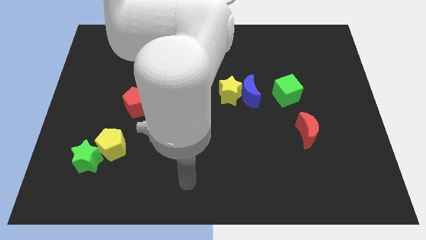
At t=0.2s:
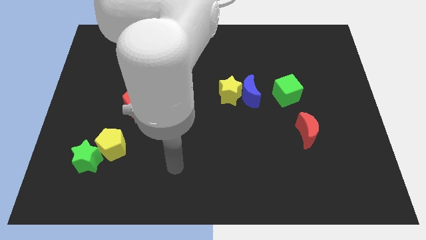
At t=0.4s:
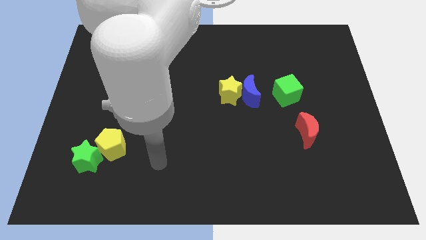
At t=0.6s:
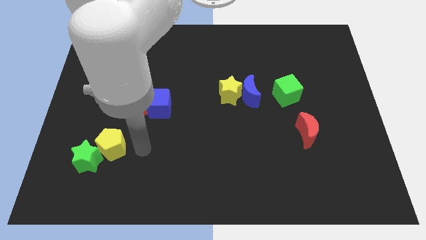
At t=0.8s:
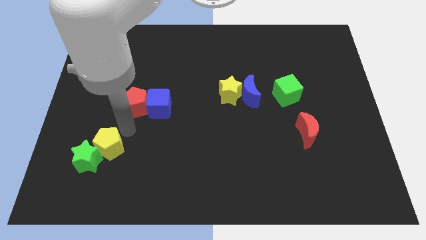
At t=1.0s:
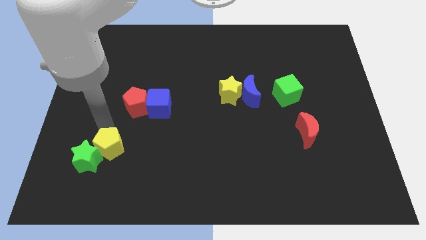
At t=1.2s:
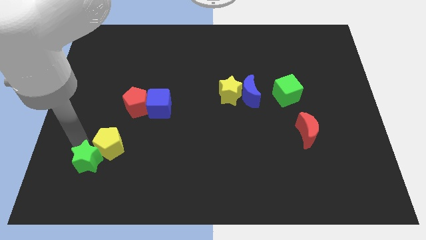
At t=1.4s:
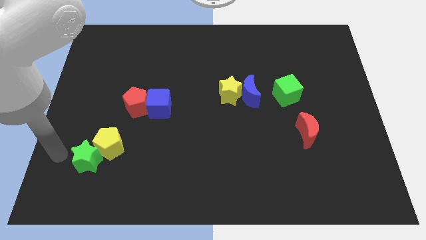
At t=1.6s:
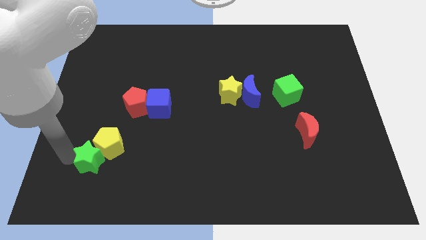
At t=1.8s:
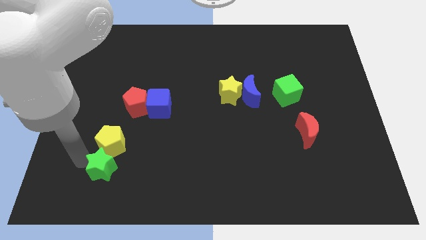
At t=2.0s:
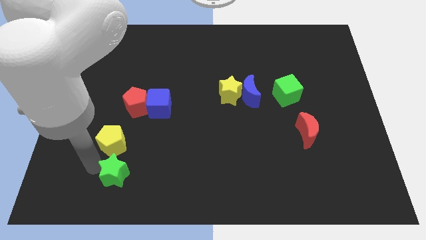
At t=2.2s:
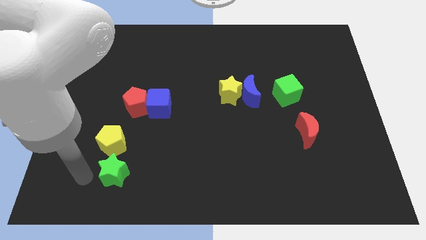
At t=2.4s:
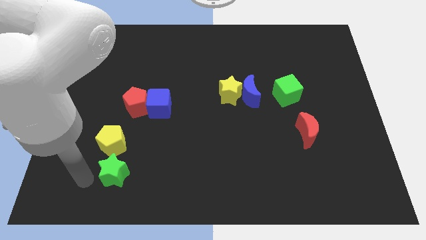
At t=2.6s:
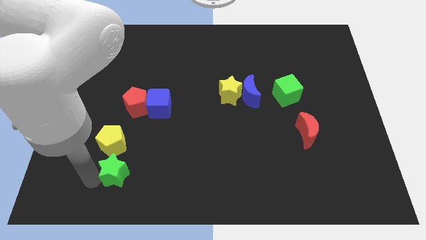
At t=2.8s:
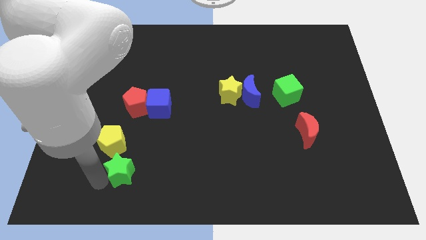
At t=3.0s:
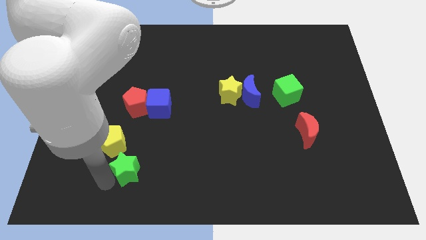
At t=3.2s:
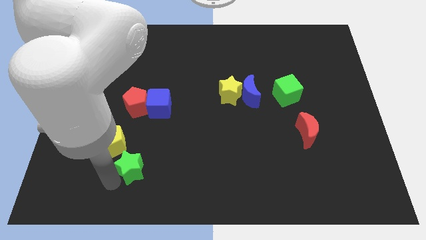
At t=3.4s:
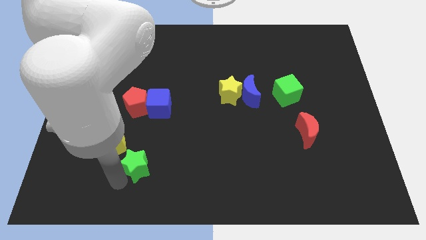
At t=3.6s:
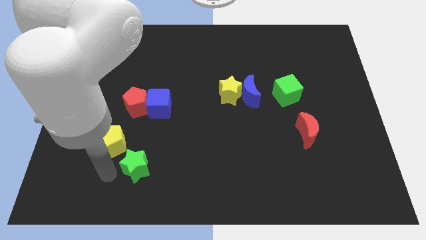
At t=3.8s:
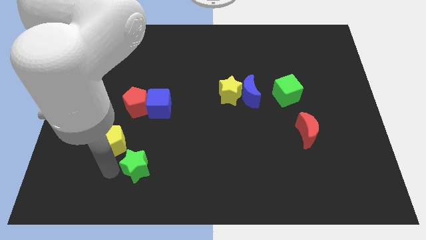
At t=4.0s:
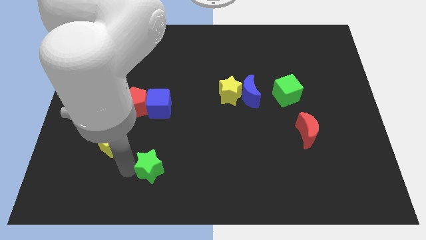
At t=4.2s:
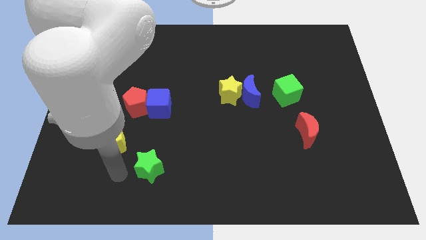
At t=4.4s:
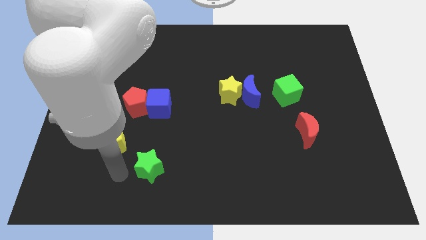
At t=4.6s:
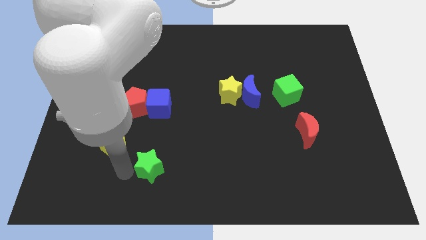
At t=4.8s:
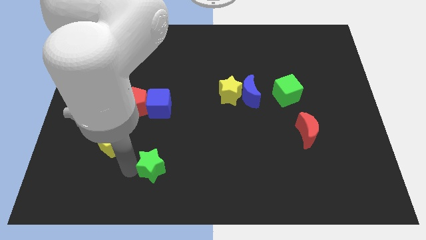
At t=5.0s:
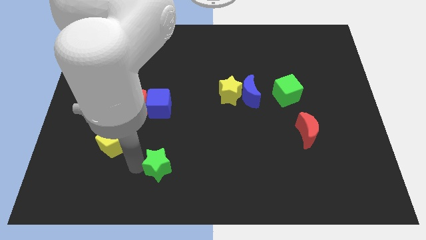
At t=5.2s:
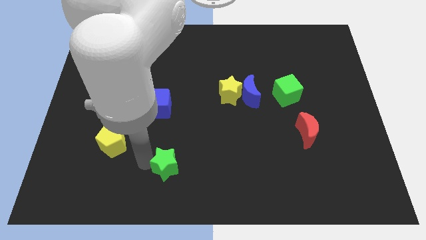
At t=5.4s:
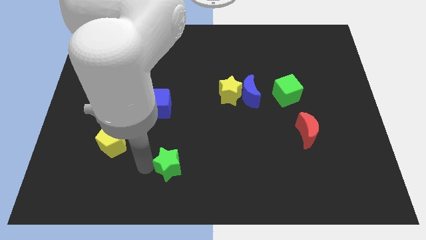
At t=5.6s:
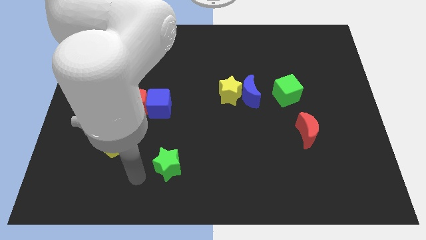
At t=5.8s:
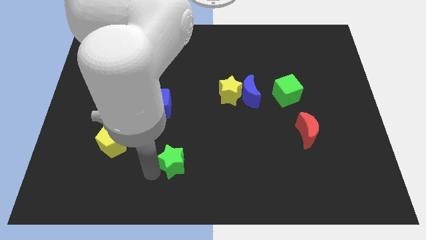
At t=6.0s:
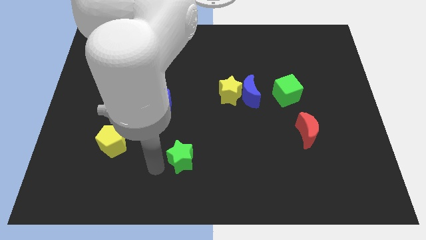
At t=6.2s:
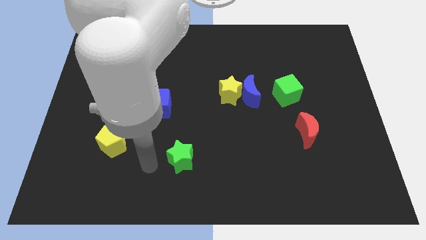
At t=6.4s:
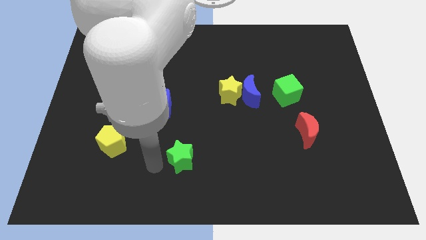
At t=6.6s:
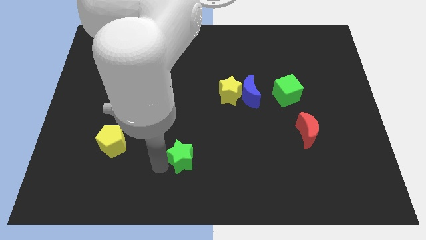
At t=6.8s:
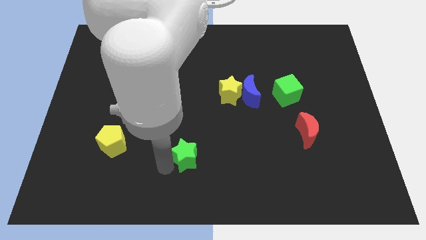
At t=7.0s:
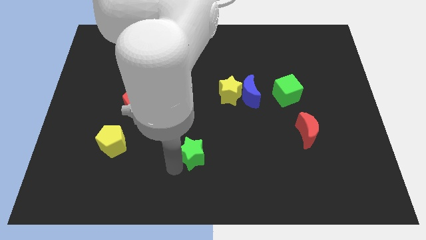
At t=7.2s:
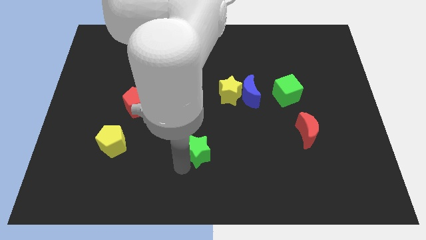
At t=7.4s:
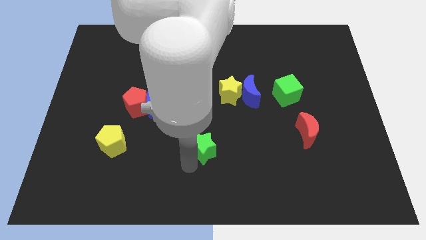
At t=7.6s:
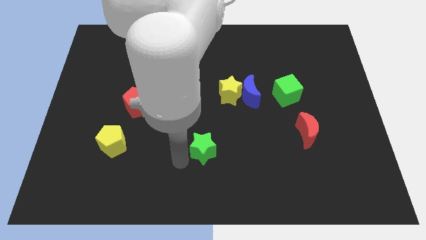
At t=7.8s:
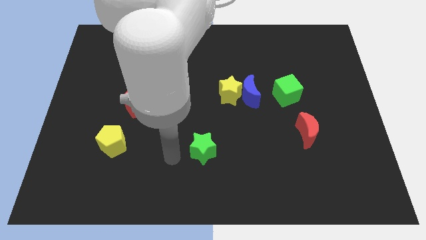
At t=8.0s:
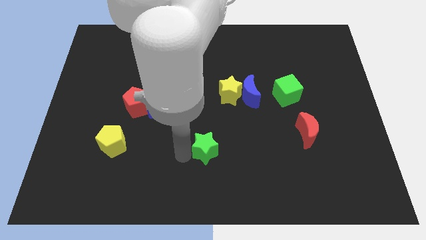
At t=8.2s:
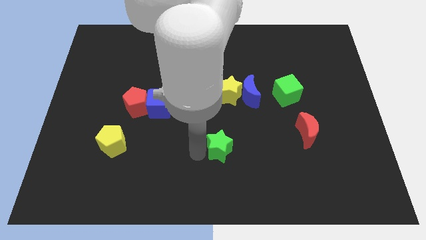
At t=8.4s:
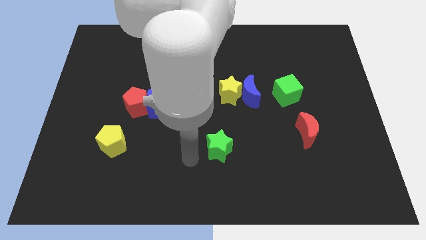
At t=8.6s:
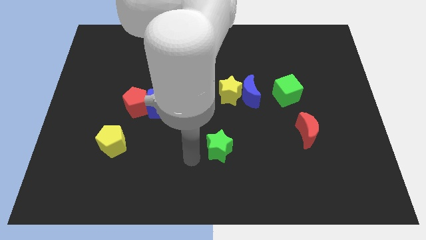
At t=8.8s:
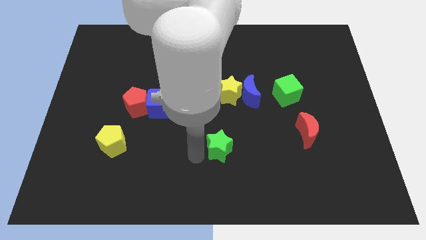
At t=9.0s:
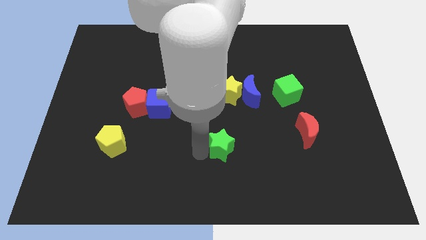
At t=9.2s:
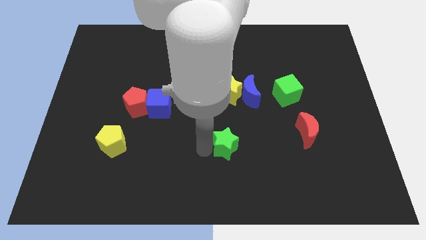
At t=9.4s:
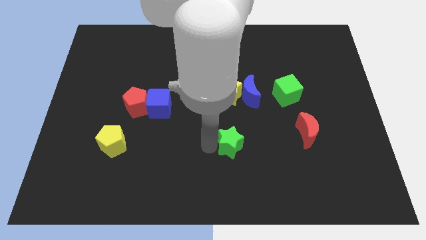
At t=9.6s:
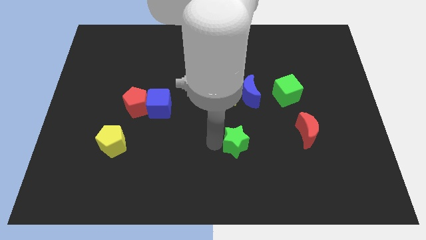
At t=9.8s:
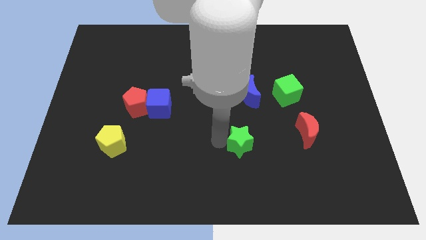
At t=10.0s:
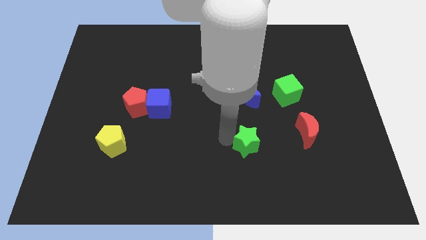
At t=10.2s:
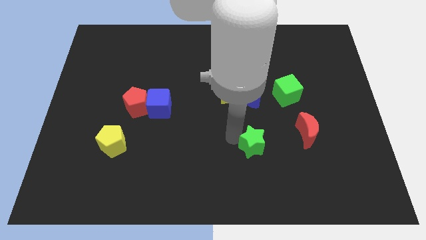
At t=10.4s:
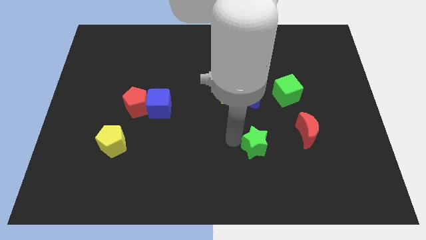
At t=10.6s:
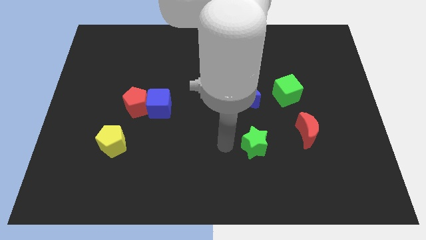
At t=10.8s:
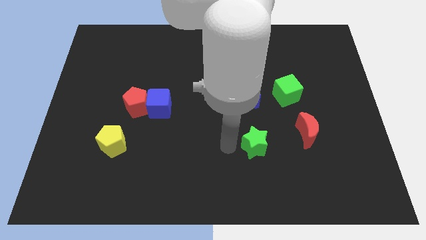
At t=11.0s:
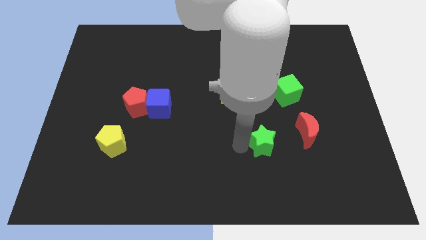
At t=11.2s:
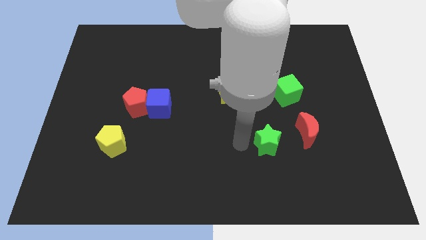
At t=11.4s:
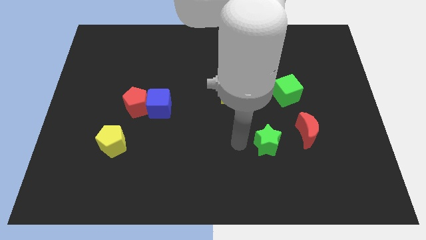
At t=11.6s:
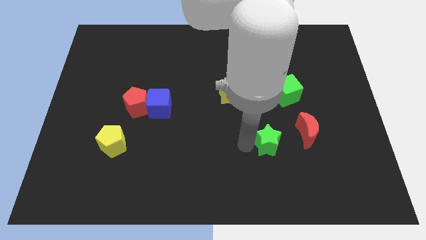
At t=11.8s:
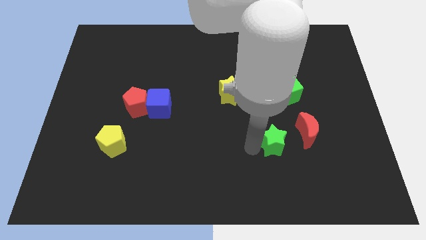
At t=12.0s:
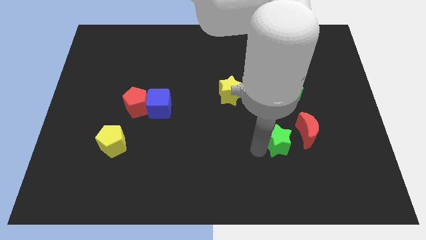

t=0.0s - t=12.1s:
move the green star to the bottom of the green cube

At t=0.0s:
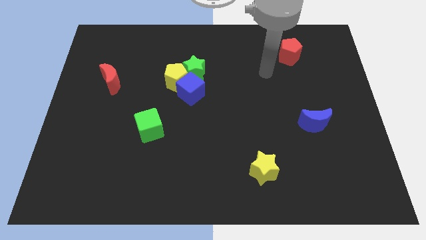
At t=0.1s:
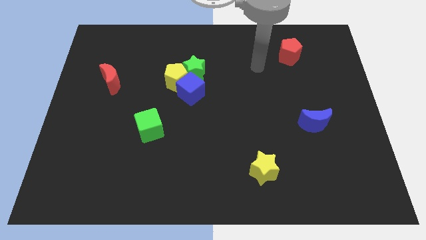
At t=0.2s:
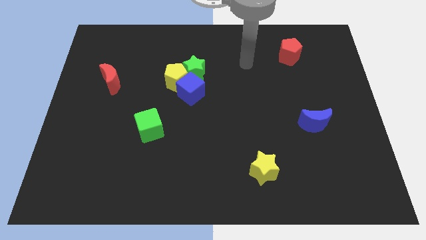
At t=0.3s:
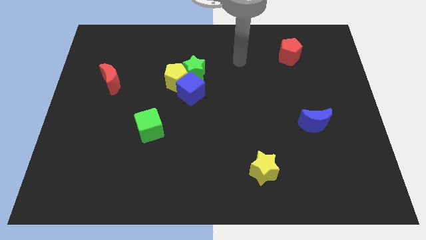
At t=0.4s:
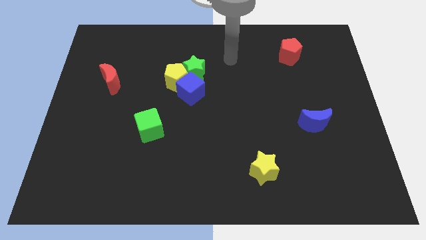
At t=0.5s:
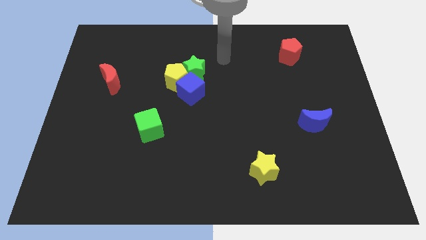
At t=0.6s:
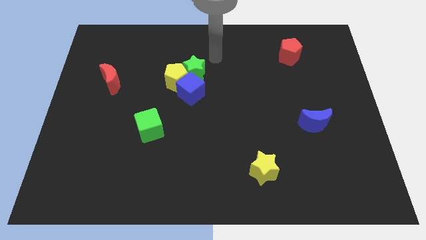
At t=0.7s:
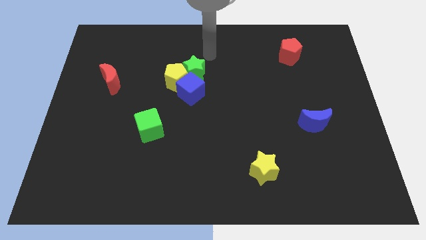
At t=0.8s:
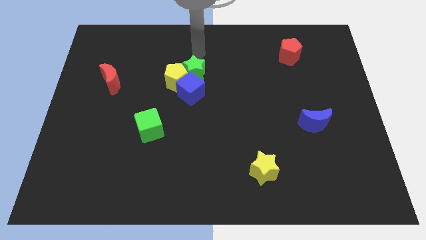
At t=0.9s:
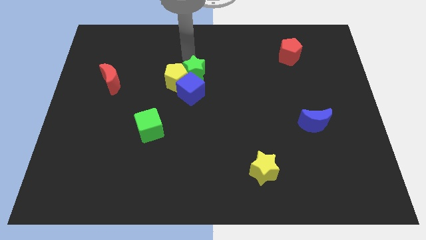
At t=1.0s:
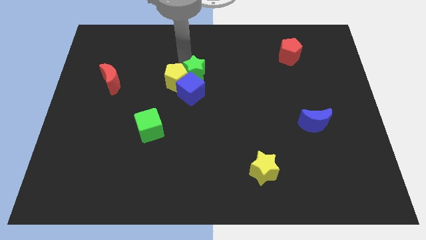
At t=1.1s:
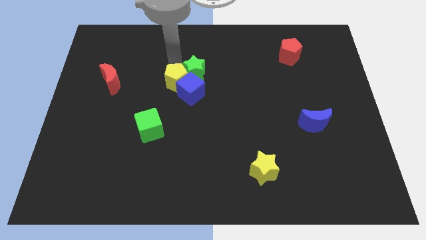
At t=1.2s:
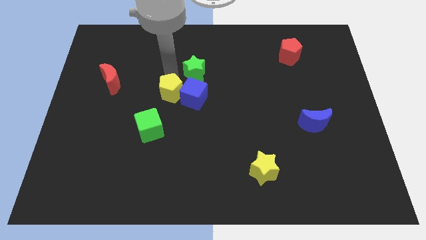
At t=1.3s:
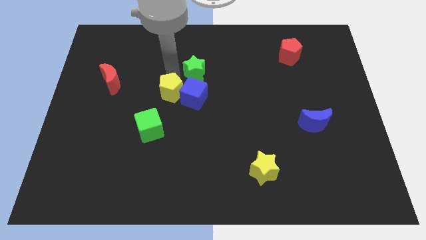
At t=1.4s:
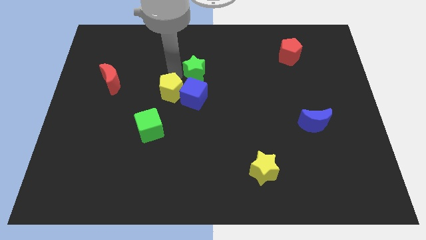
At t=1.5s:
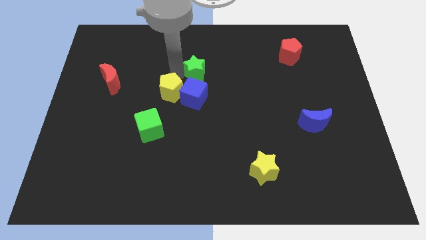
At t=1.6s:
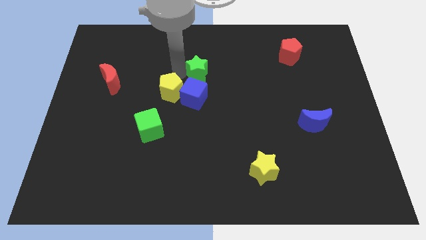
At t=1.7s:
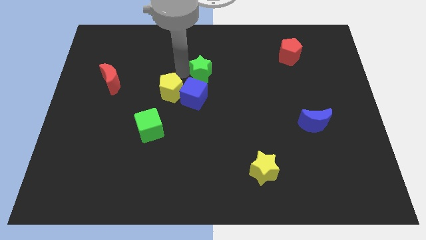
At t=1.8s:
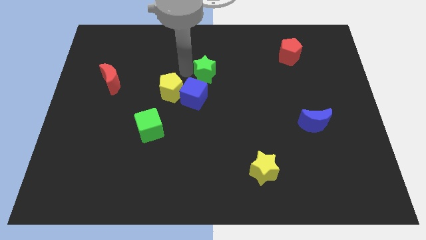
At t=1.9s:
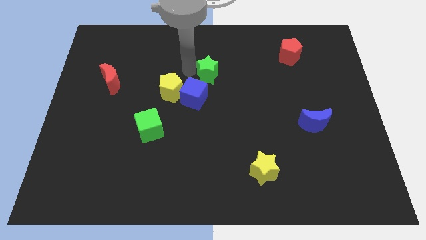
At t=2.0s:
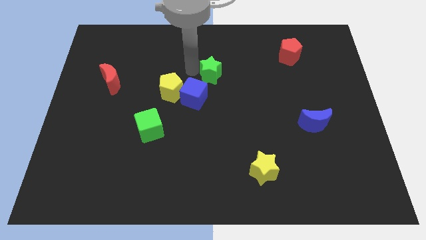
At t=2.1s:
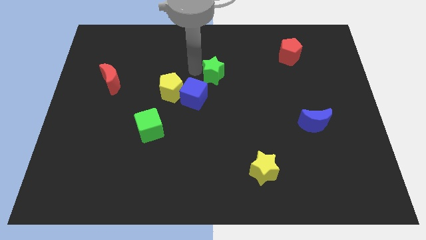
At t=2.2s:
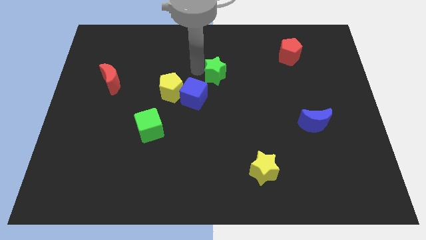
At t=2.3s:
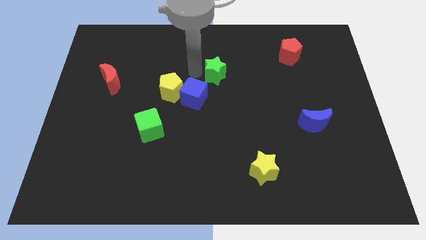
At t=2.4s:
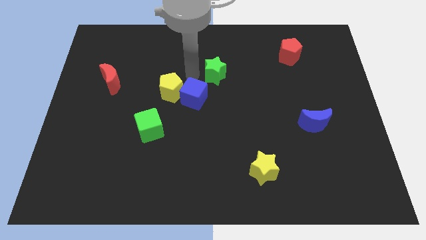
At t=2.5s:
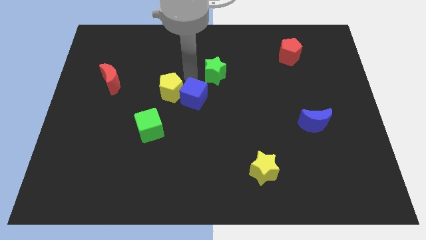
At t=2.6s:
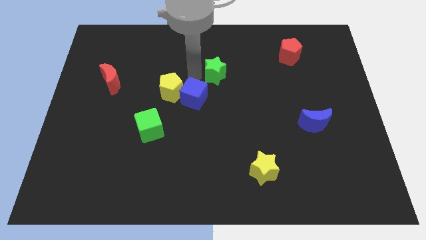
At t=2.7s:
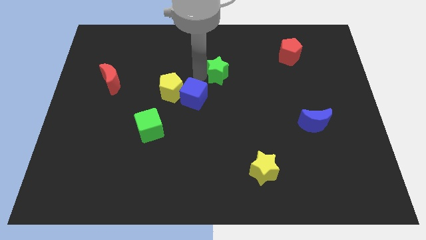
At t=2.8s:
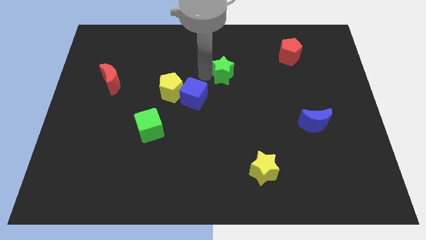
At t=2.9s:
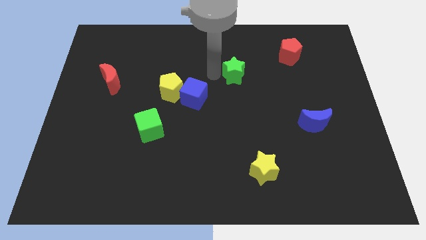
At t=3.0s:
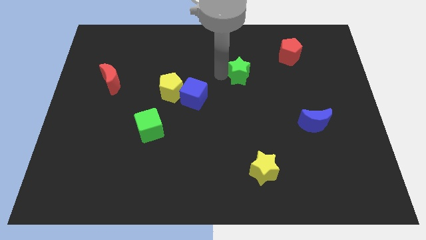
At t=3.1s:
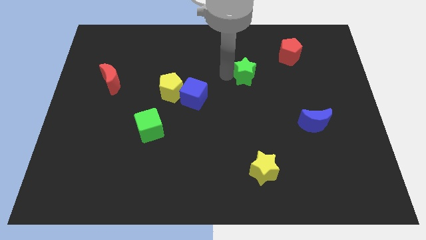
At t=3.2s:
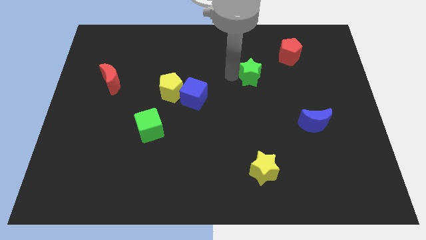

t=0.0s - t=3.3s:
put the green star to the bottom left side of the red pentagon
